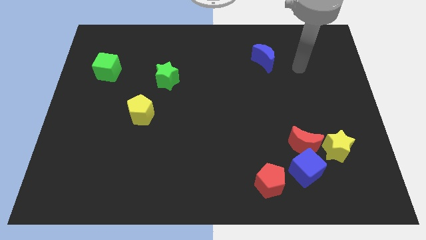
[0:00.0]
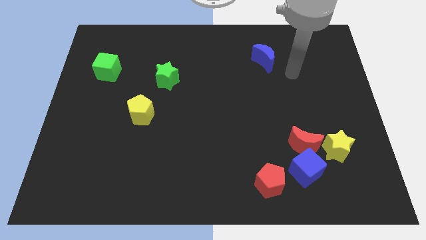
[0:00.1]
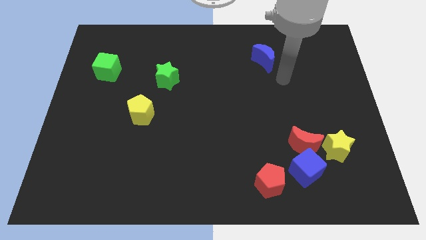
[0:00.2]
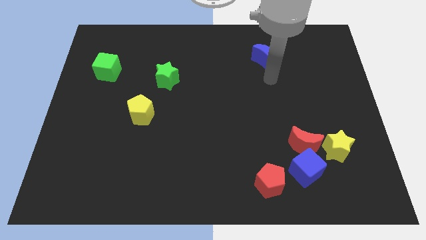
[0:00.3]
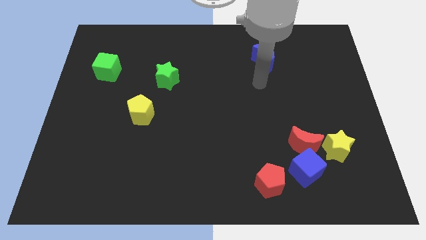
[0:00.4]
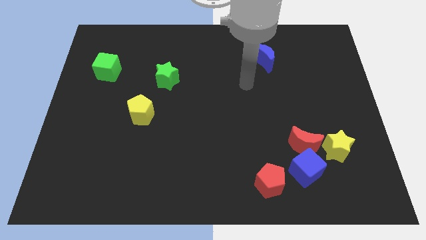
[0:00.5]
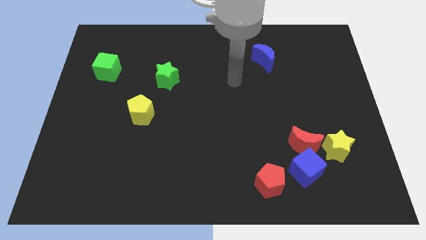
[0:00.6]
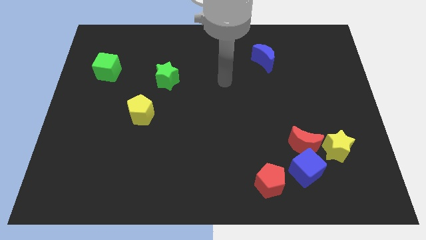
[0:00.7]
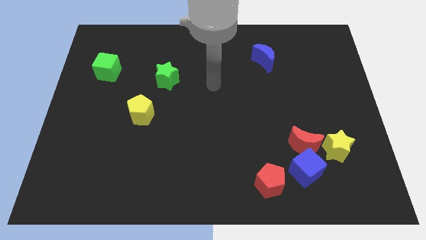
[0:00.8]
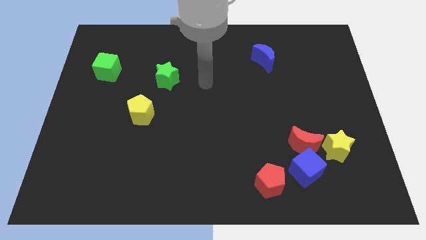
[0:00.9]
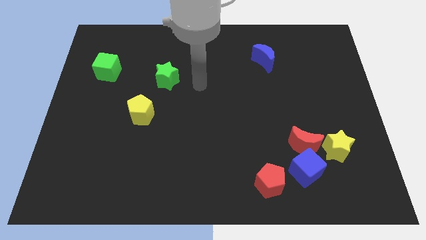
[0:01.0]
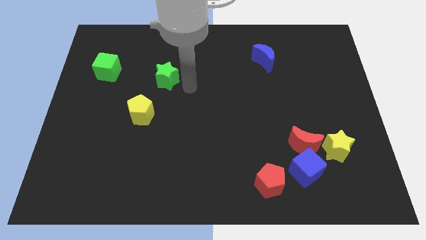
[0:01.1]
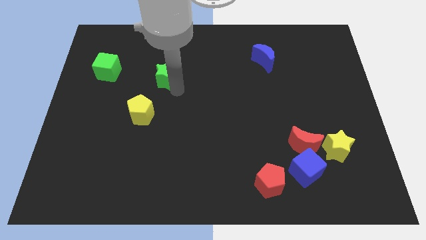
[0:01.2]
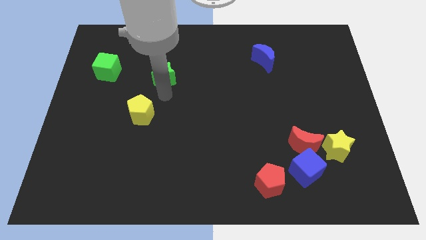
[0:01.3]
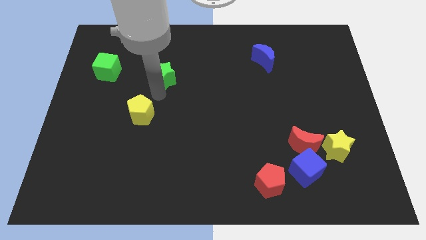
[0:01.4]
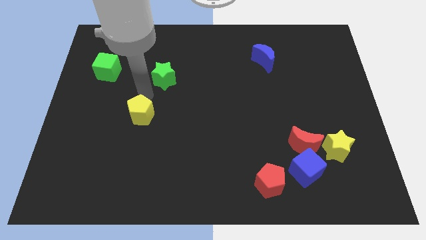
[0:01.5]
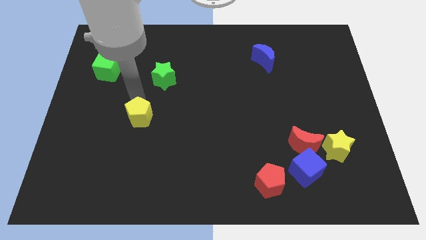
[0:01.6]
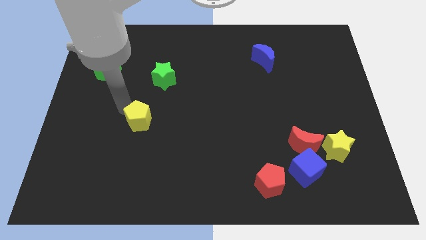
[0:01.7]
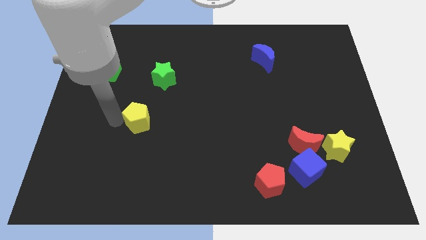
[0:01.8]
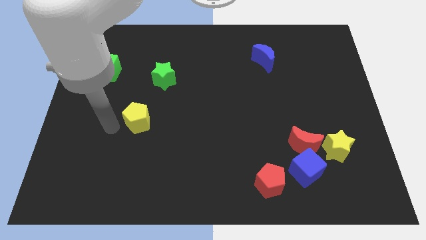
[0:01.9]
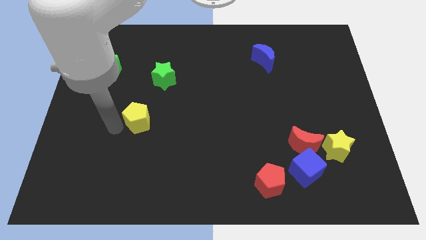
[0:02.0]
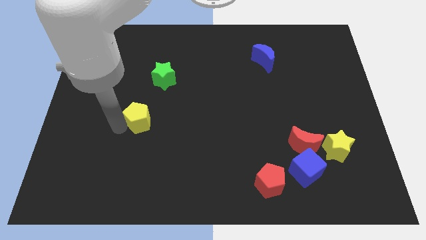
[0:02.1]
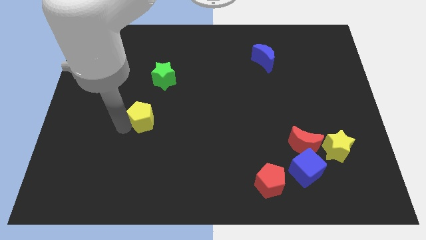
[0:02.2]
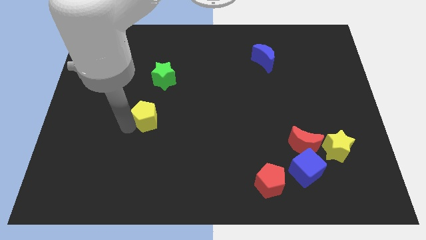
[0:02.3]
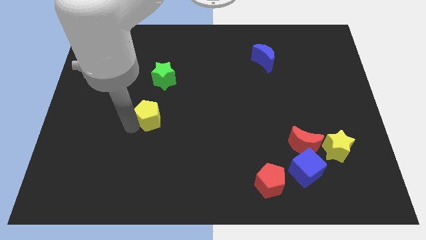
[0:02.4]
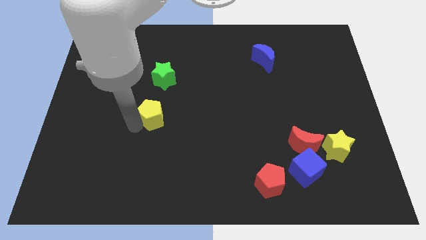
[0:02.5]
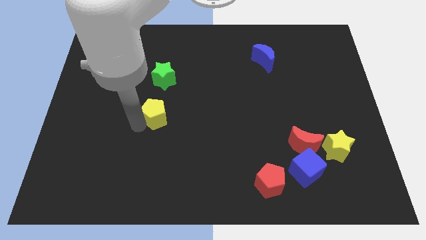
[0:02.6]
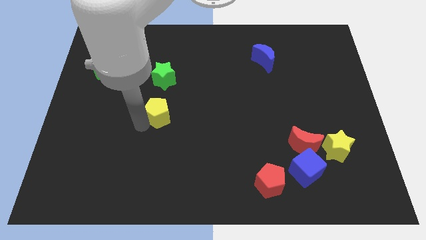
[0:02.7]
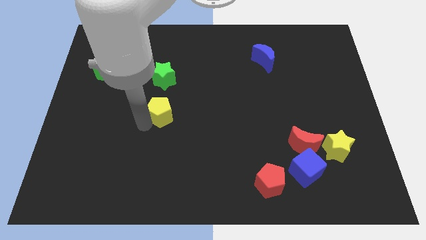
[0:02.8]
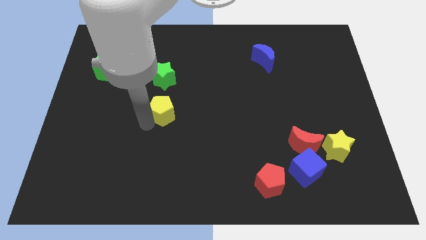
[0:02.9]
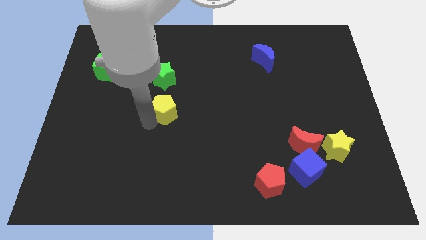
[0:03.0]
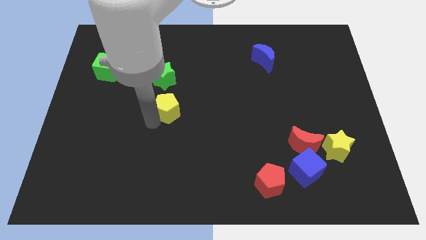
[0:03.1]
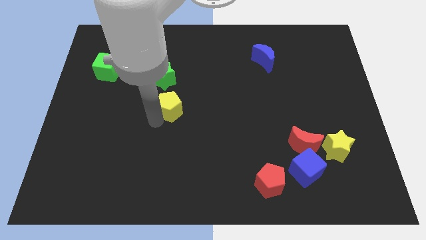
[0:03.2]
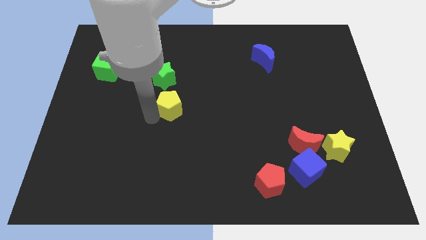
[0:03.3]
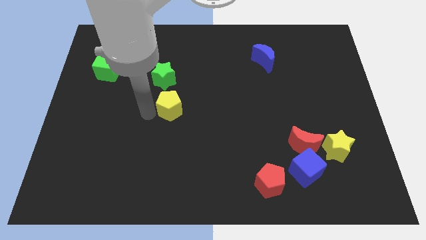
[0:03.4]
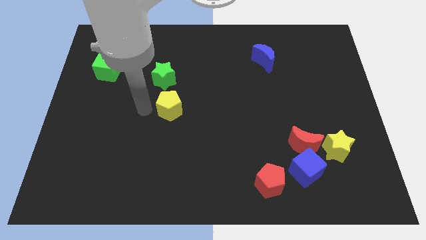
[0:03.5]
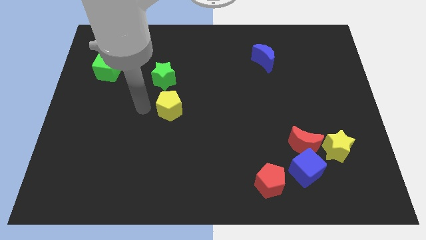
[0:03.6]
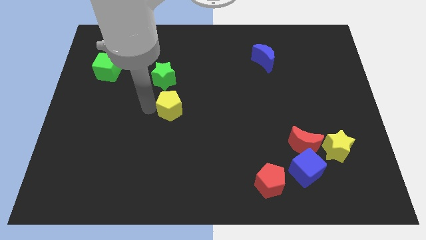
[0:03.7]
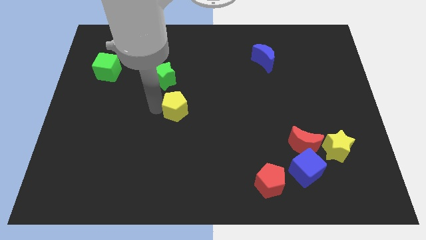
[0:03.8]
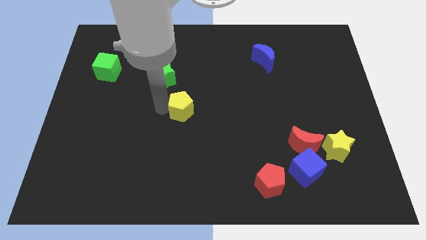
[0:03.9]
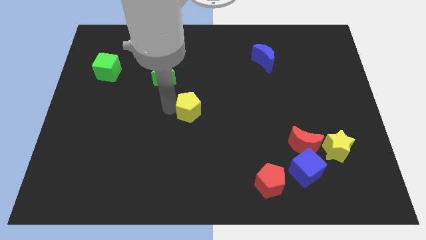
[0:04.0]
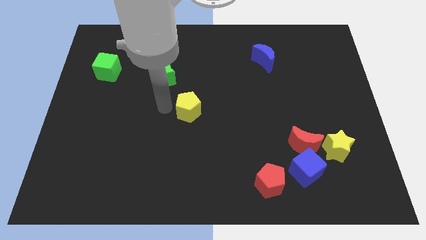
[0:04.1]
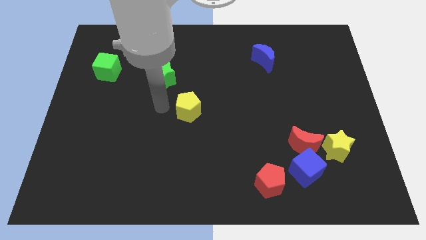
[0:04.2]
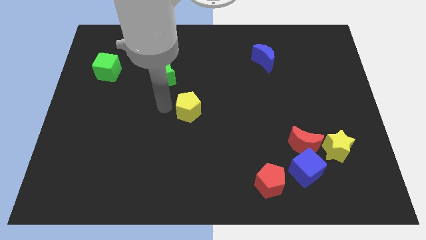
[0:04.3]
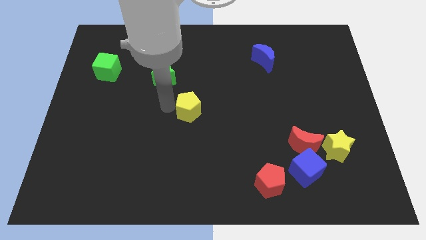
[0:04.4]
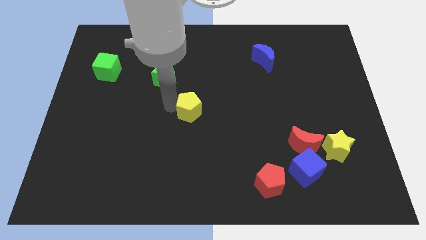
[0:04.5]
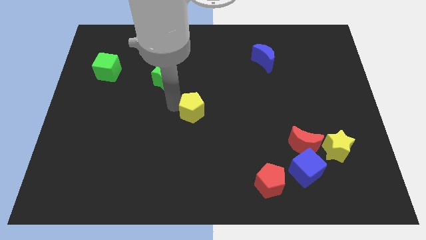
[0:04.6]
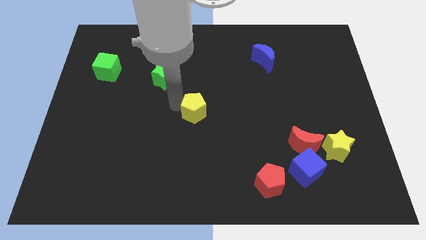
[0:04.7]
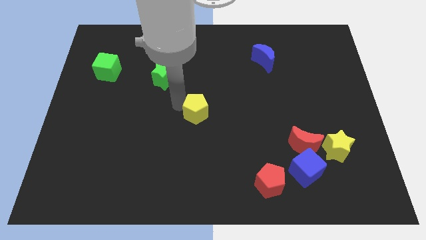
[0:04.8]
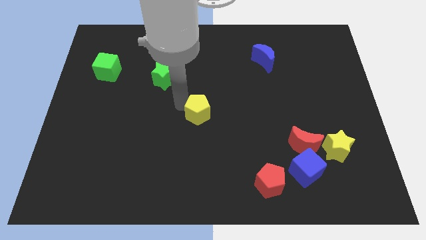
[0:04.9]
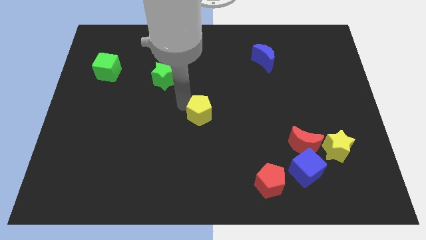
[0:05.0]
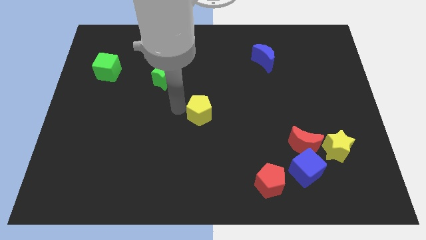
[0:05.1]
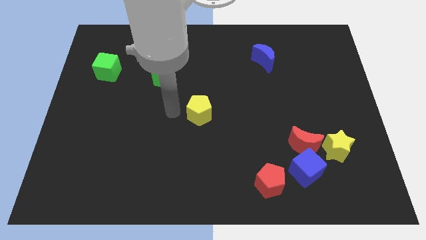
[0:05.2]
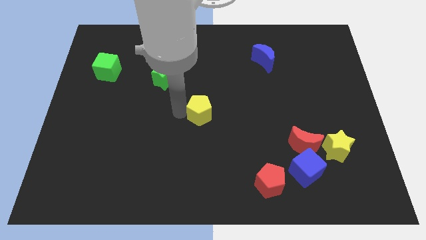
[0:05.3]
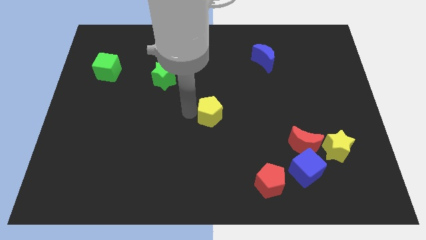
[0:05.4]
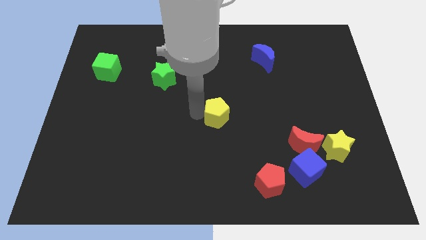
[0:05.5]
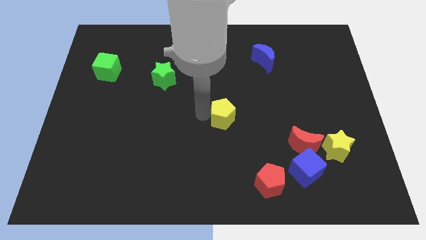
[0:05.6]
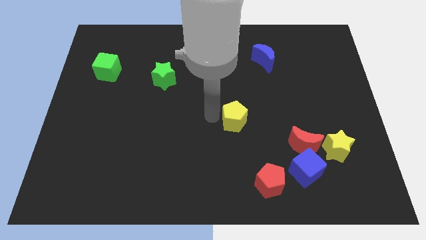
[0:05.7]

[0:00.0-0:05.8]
move the yellow pentagon to the right

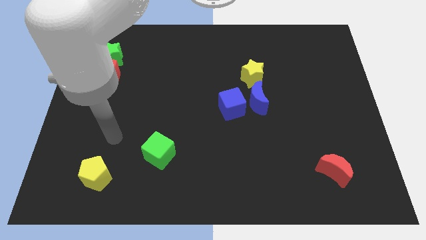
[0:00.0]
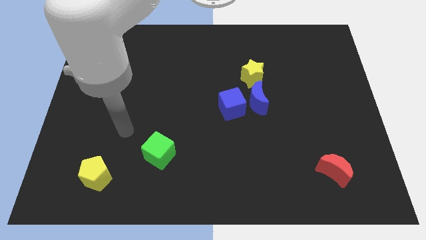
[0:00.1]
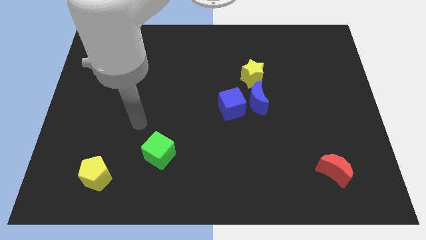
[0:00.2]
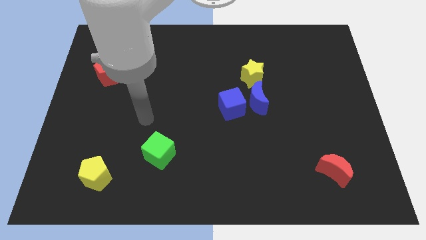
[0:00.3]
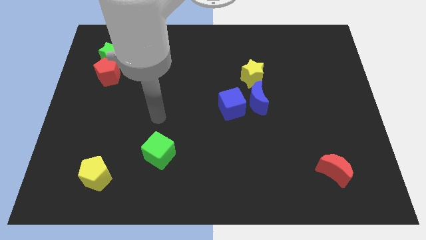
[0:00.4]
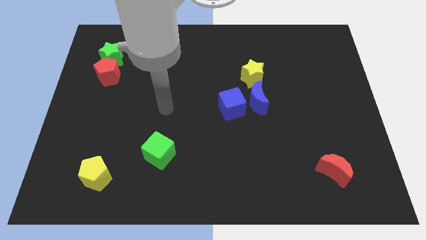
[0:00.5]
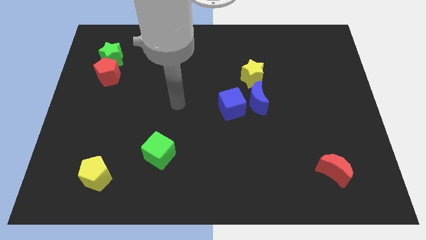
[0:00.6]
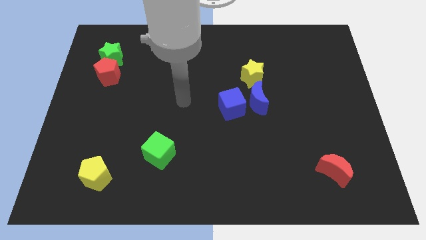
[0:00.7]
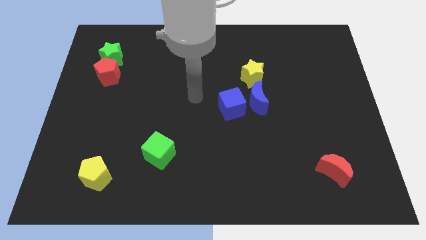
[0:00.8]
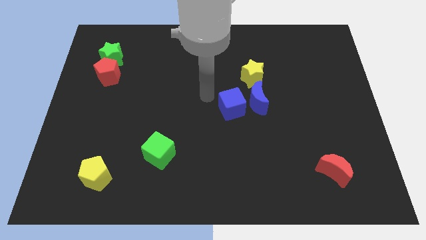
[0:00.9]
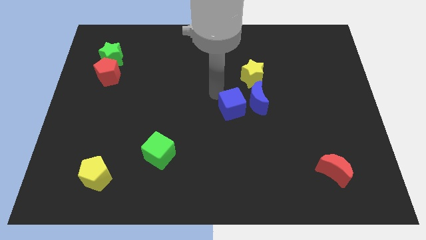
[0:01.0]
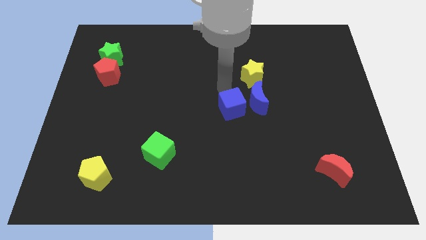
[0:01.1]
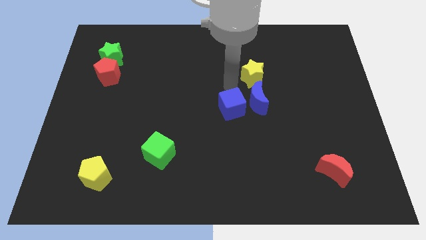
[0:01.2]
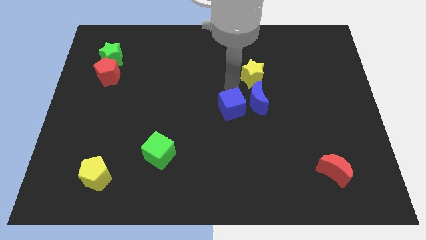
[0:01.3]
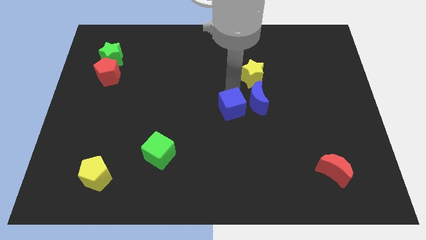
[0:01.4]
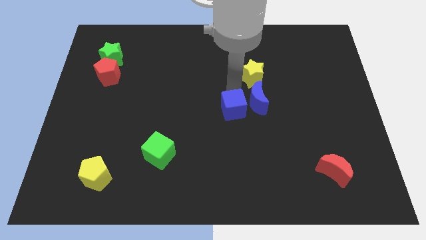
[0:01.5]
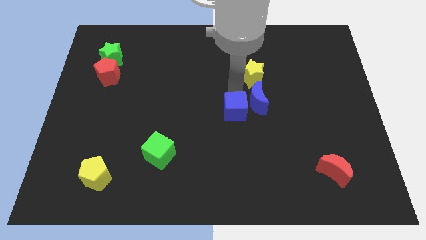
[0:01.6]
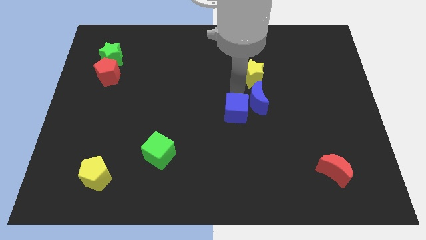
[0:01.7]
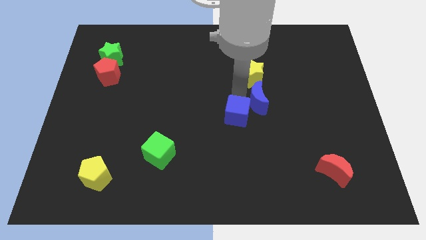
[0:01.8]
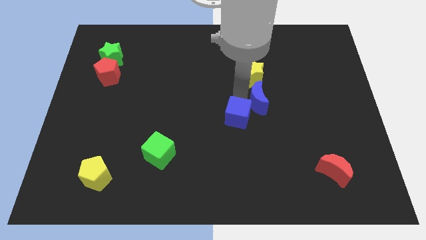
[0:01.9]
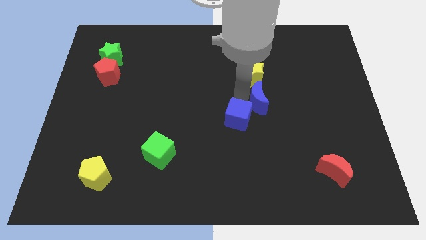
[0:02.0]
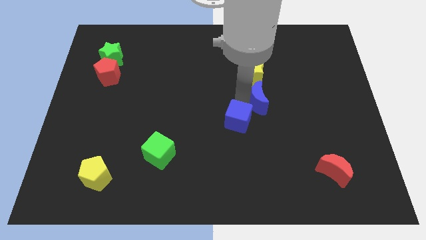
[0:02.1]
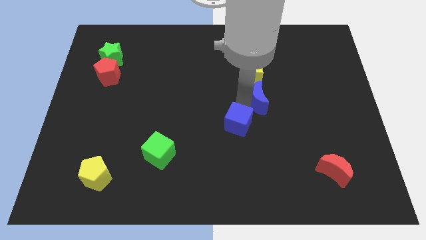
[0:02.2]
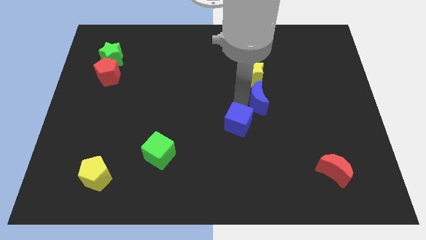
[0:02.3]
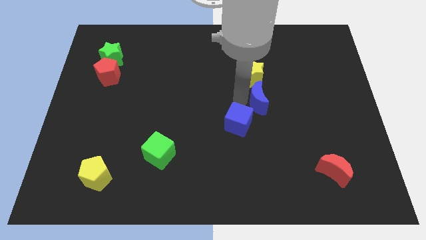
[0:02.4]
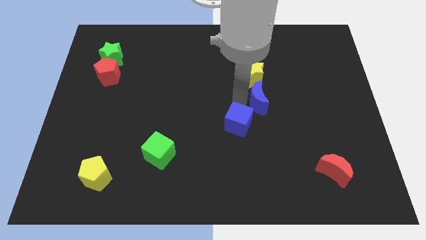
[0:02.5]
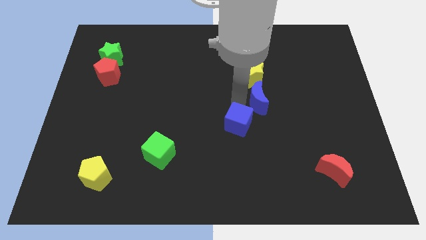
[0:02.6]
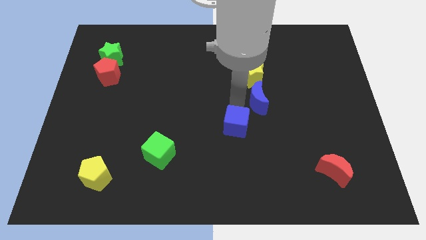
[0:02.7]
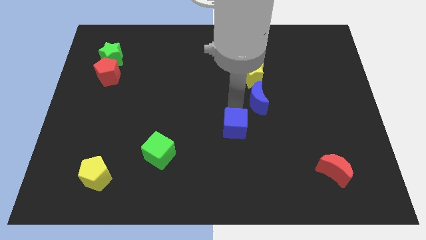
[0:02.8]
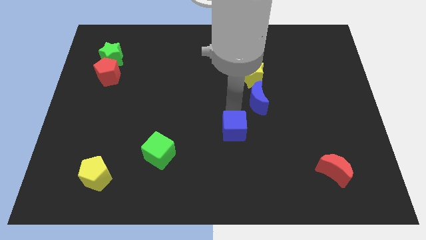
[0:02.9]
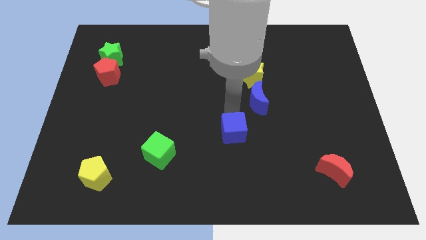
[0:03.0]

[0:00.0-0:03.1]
move the blue cube a bit down
